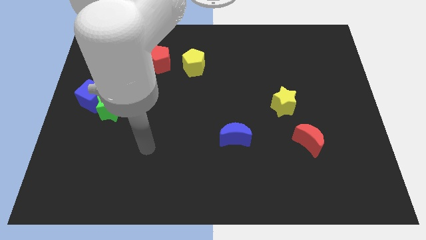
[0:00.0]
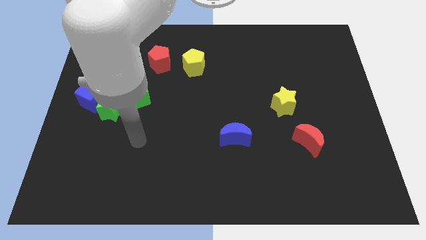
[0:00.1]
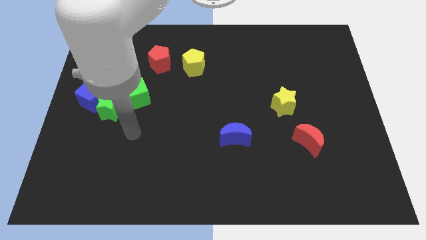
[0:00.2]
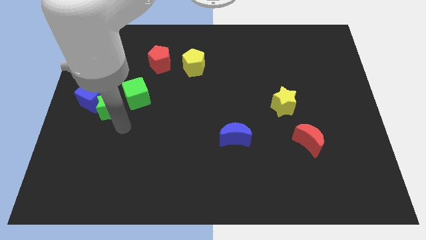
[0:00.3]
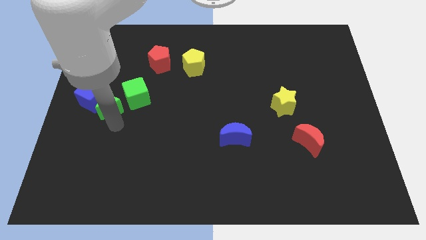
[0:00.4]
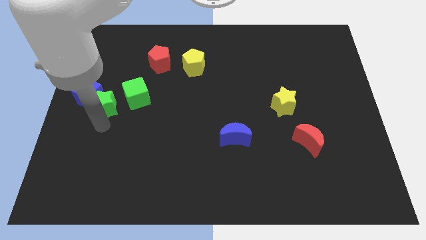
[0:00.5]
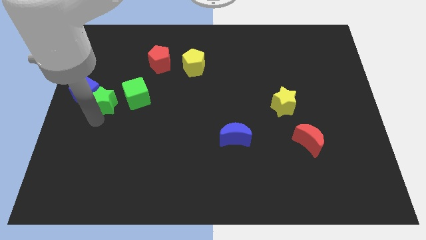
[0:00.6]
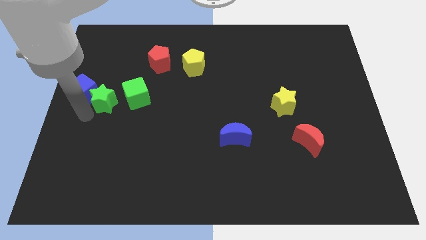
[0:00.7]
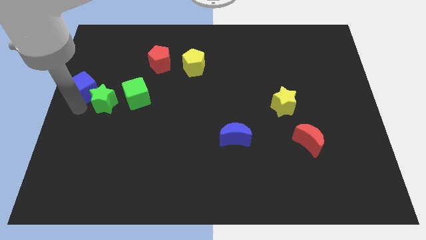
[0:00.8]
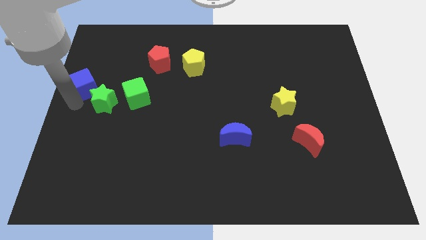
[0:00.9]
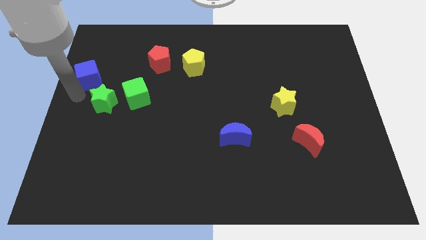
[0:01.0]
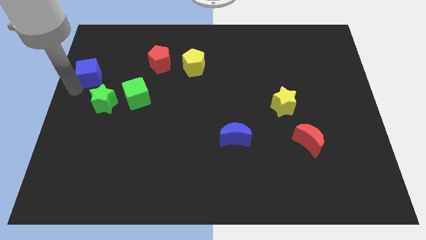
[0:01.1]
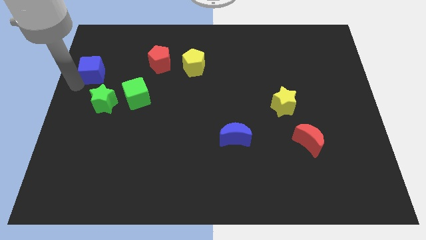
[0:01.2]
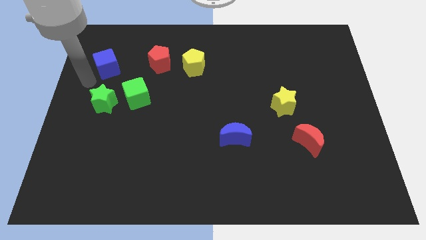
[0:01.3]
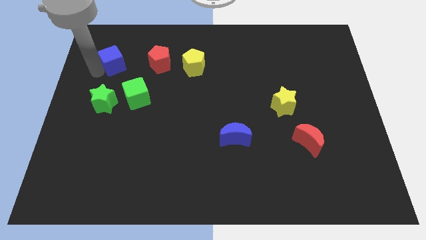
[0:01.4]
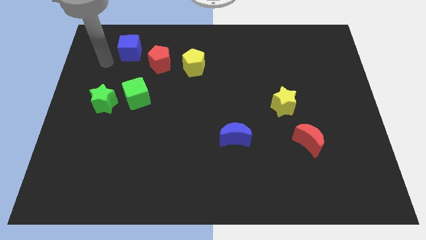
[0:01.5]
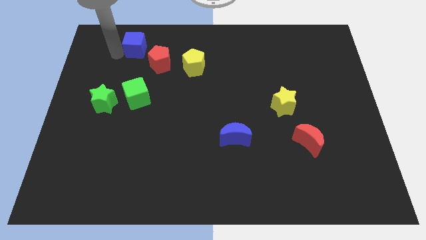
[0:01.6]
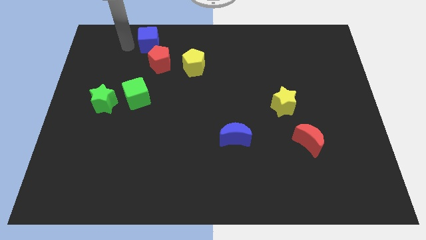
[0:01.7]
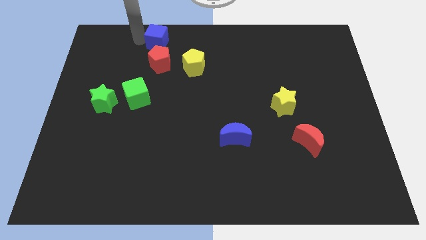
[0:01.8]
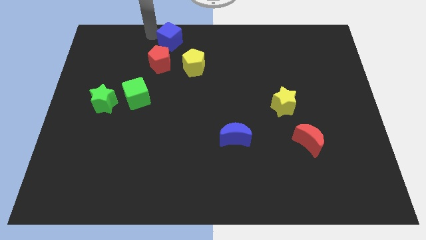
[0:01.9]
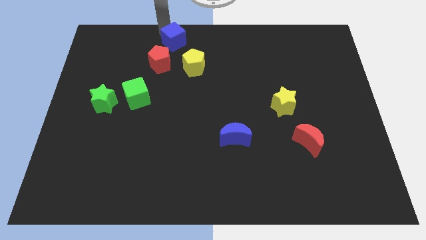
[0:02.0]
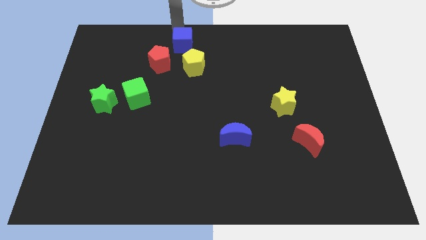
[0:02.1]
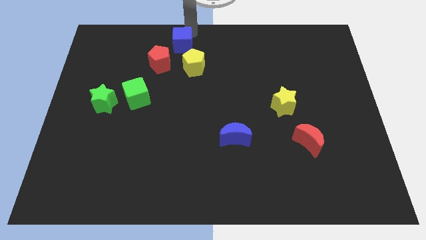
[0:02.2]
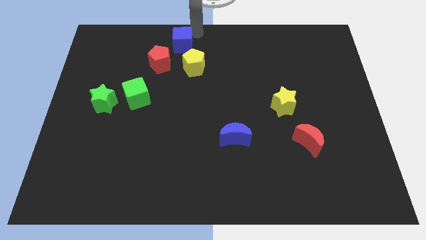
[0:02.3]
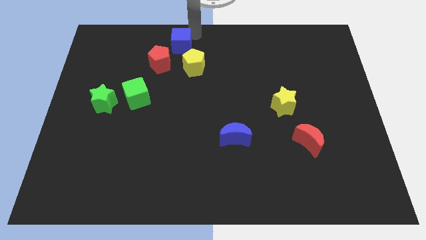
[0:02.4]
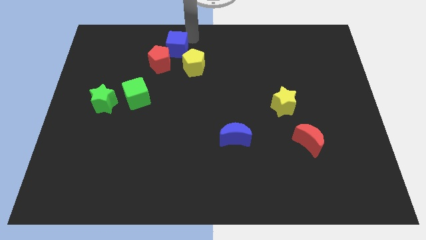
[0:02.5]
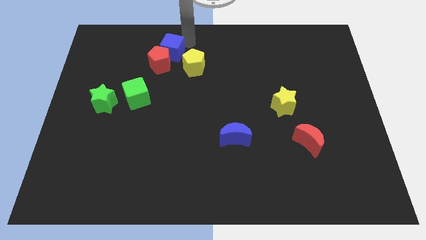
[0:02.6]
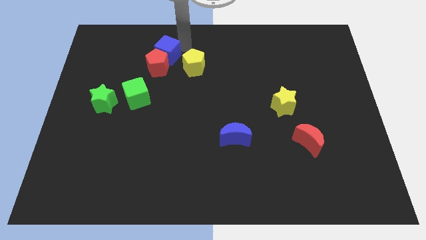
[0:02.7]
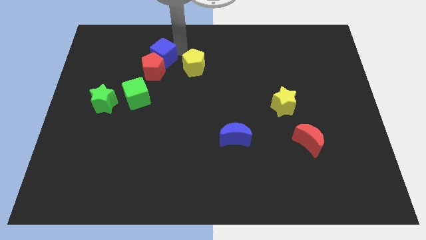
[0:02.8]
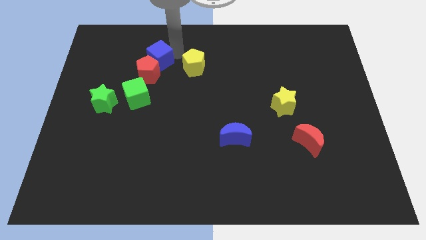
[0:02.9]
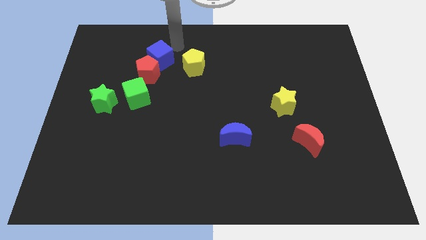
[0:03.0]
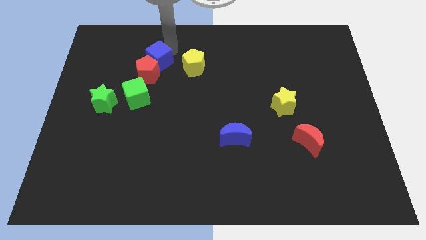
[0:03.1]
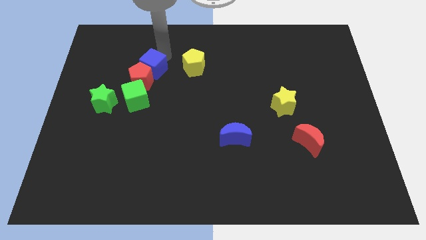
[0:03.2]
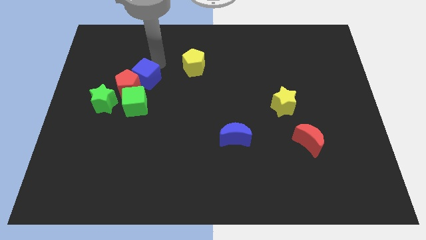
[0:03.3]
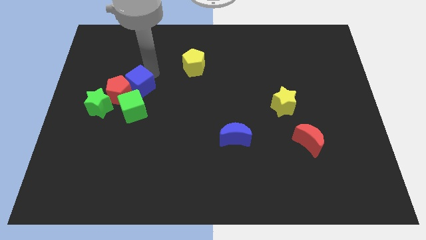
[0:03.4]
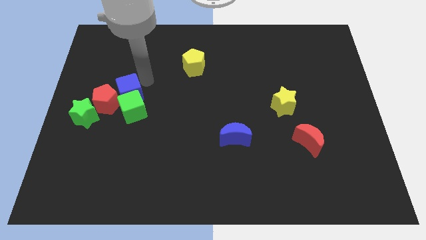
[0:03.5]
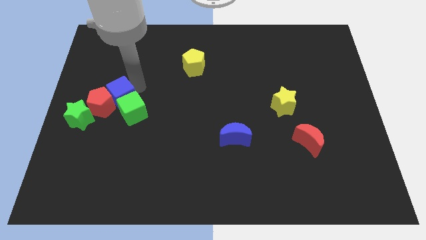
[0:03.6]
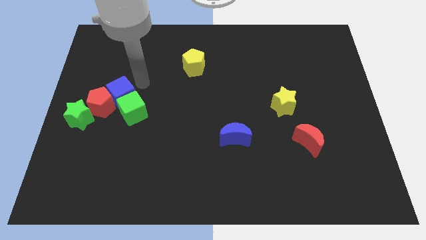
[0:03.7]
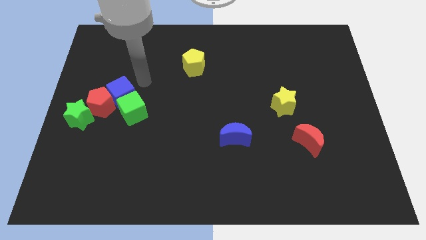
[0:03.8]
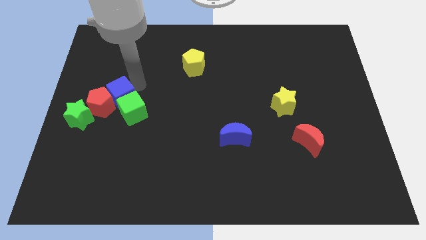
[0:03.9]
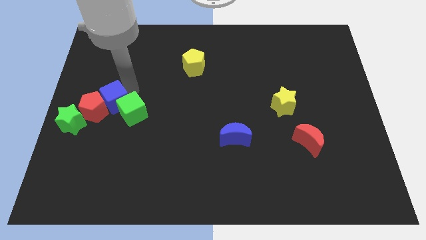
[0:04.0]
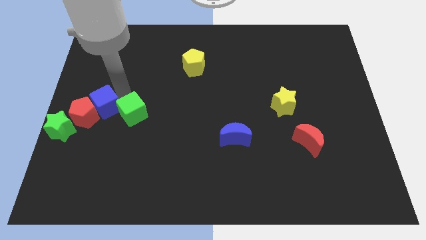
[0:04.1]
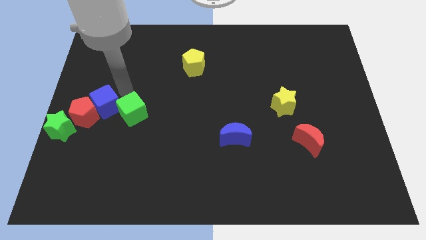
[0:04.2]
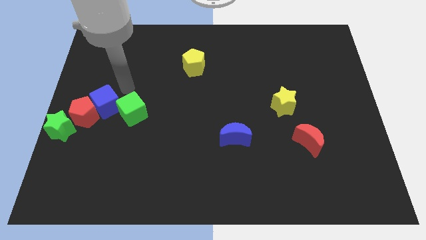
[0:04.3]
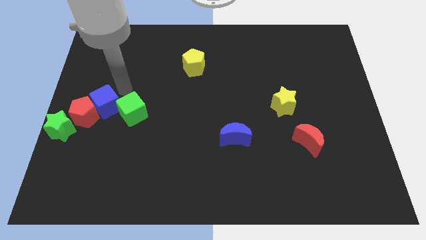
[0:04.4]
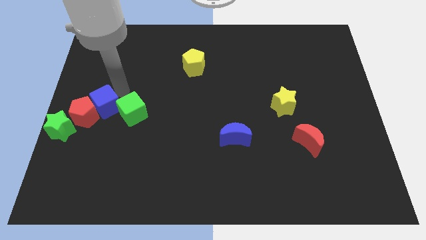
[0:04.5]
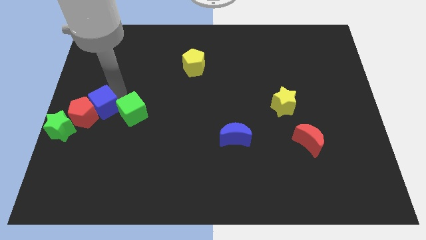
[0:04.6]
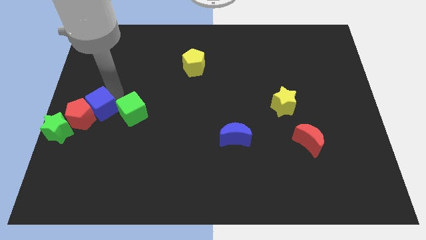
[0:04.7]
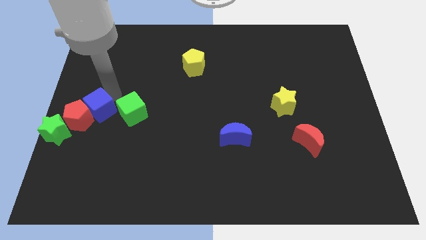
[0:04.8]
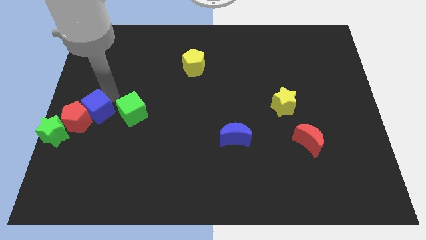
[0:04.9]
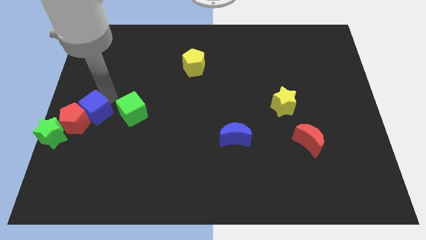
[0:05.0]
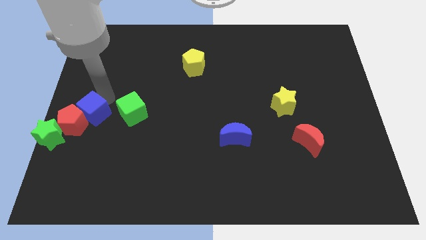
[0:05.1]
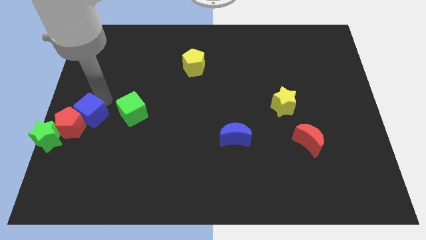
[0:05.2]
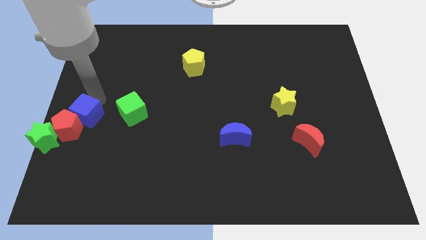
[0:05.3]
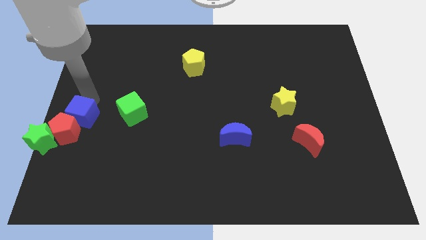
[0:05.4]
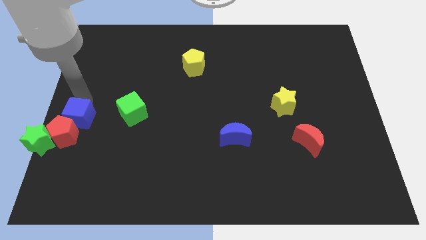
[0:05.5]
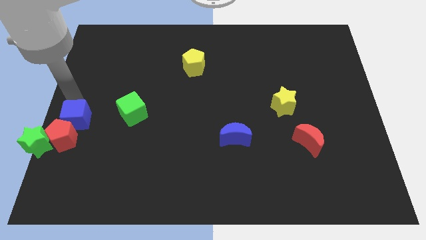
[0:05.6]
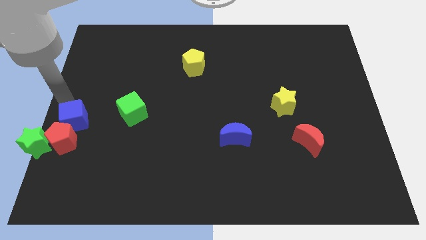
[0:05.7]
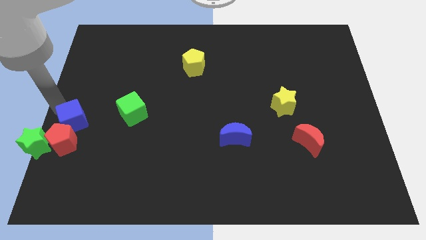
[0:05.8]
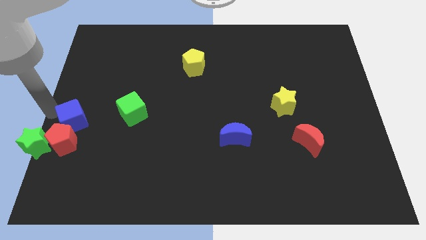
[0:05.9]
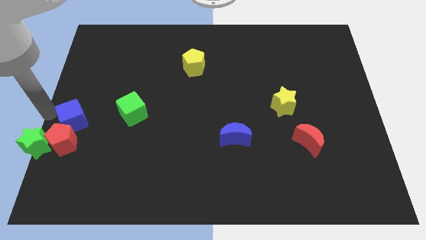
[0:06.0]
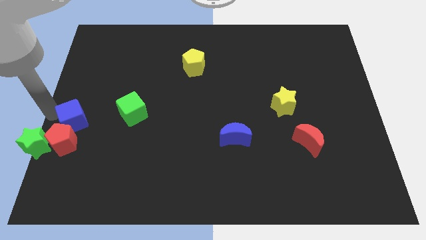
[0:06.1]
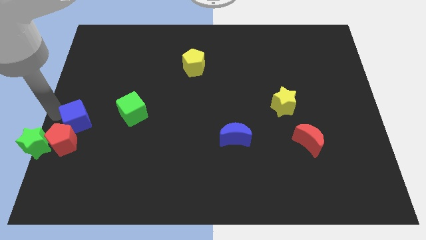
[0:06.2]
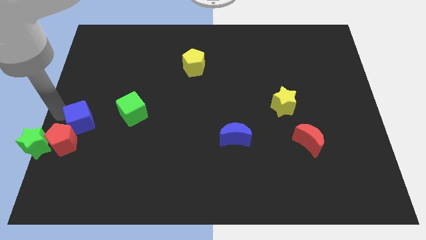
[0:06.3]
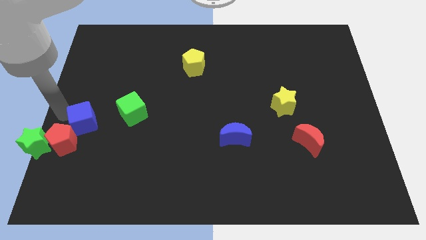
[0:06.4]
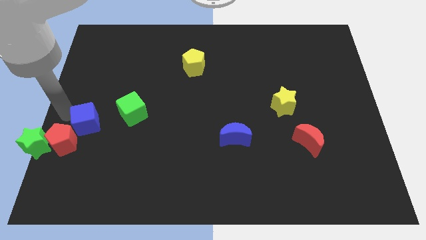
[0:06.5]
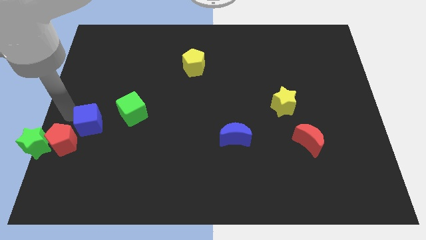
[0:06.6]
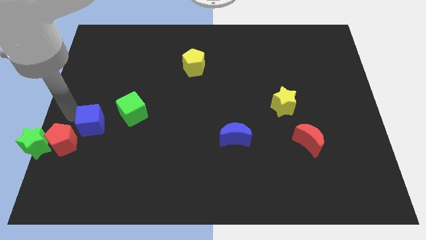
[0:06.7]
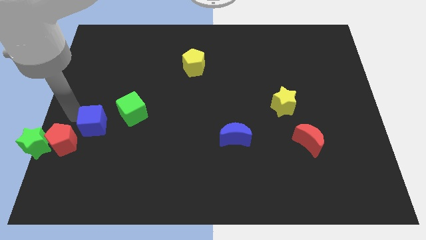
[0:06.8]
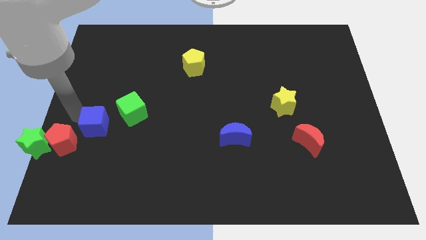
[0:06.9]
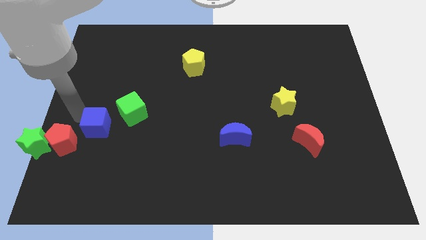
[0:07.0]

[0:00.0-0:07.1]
move the blue cube a little bit down and to the right diagonally

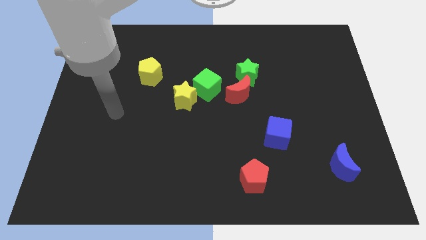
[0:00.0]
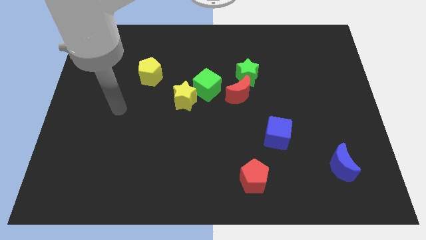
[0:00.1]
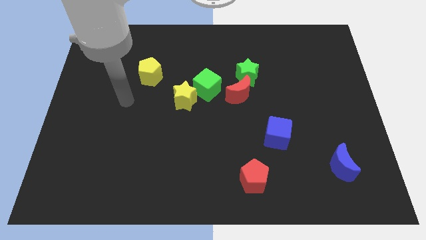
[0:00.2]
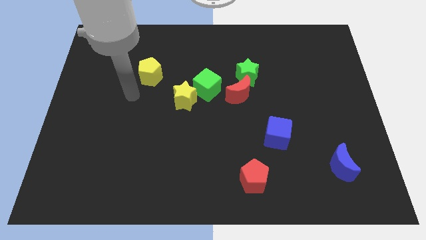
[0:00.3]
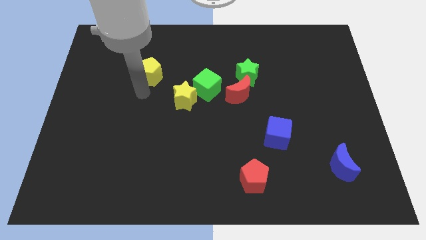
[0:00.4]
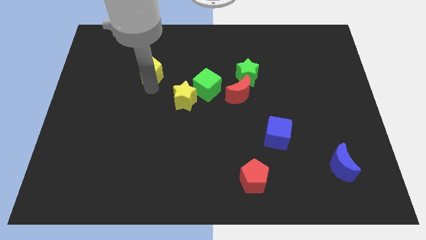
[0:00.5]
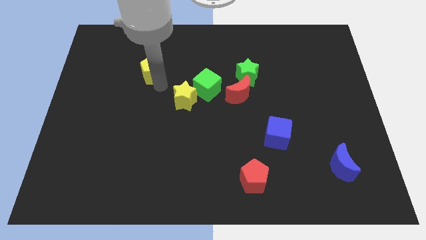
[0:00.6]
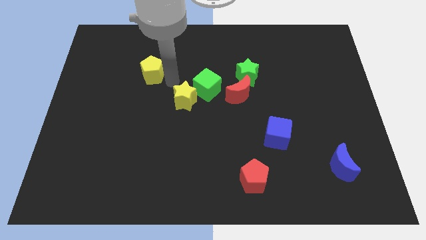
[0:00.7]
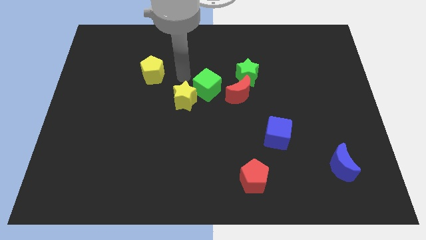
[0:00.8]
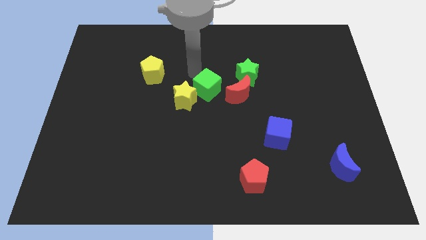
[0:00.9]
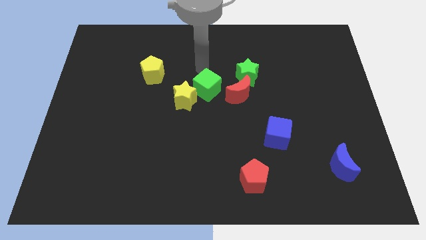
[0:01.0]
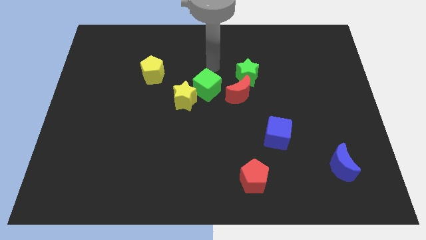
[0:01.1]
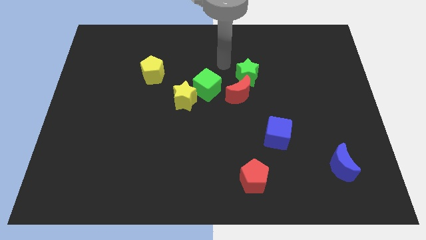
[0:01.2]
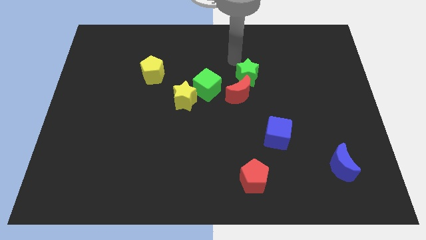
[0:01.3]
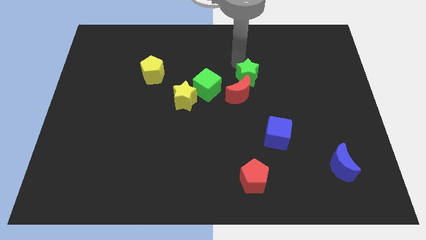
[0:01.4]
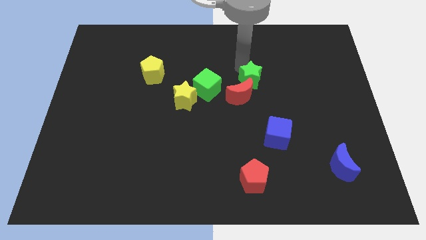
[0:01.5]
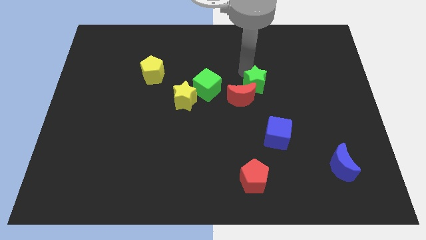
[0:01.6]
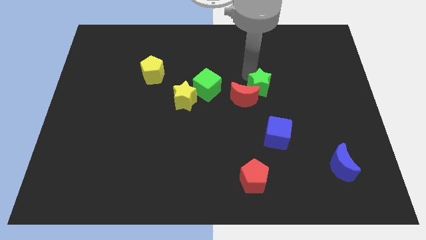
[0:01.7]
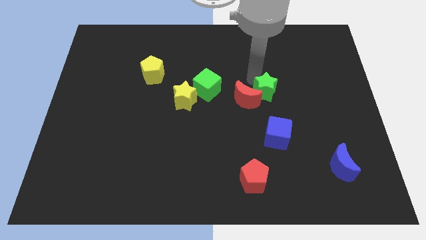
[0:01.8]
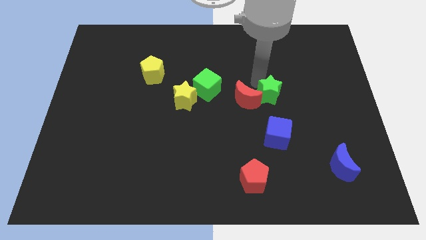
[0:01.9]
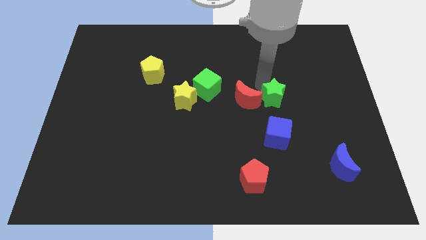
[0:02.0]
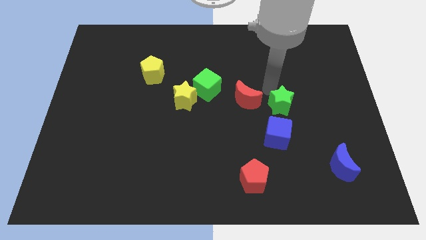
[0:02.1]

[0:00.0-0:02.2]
push the green star a little downwards
